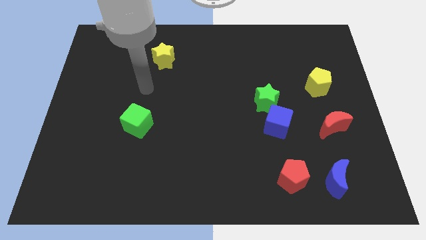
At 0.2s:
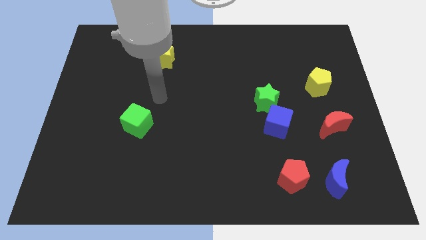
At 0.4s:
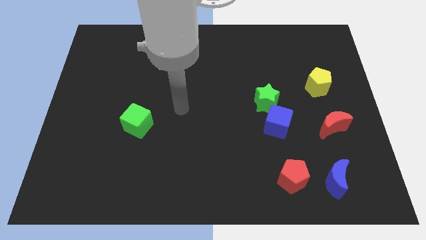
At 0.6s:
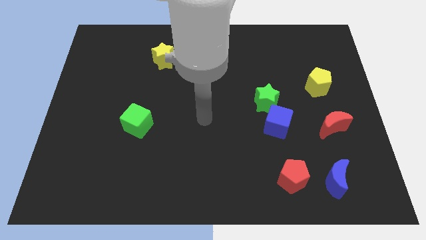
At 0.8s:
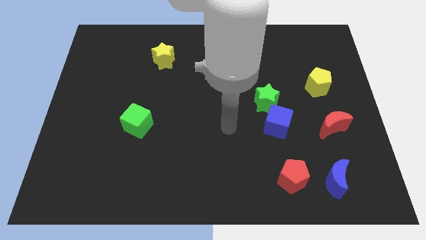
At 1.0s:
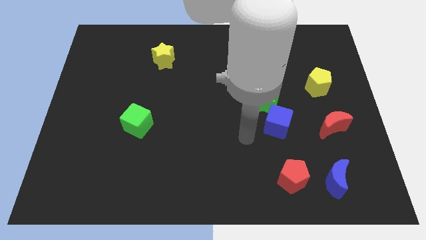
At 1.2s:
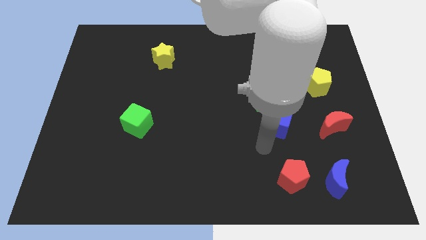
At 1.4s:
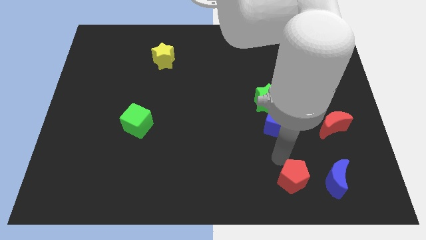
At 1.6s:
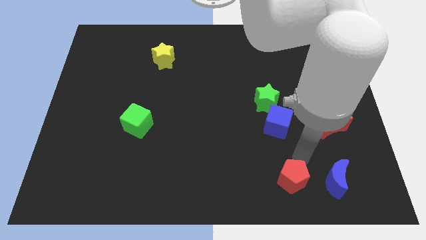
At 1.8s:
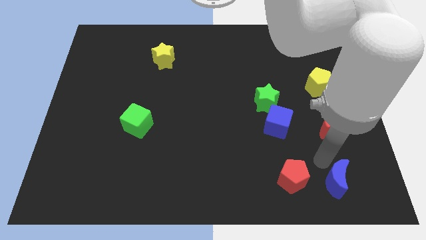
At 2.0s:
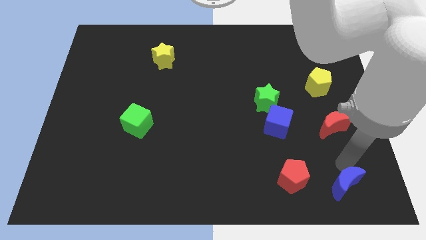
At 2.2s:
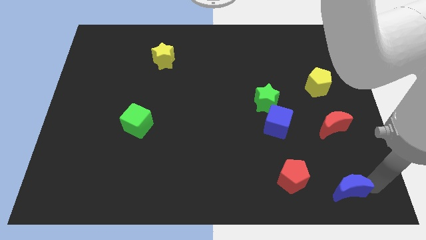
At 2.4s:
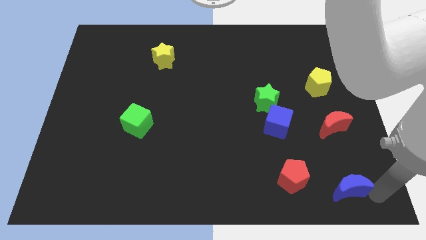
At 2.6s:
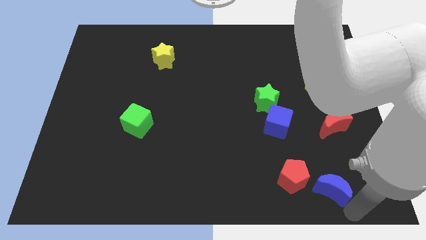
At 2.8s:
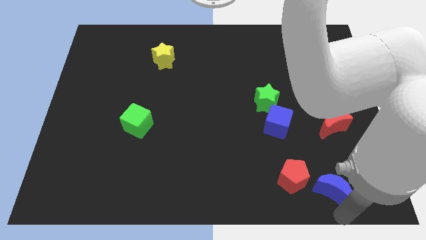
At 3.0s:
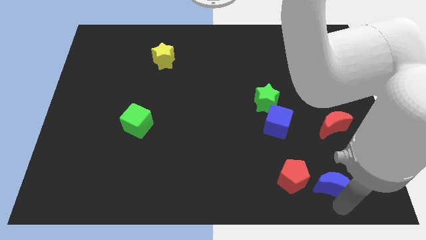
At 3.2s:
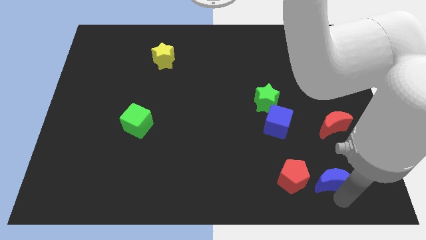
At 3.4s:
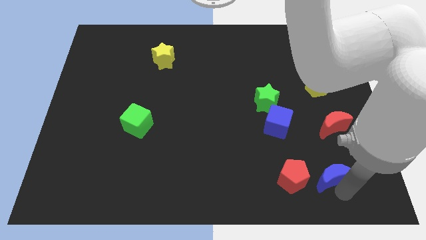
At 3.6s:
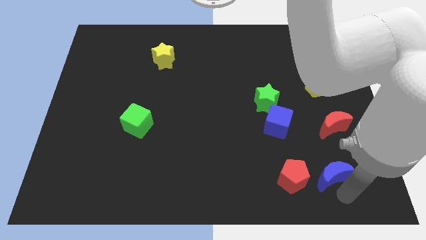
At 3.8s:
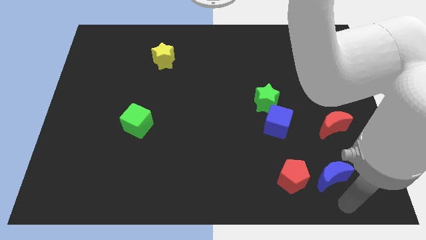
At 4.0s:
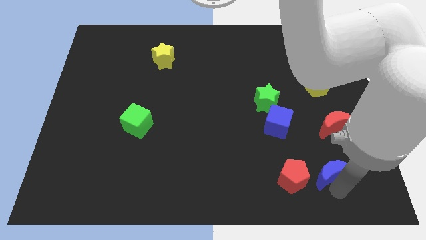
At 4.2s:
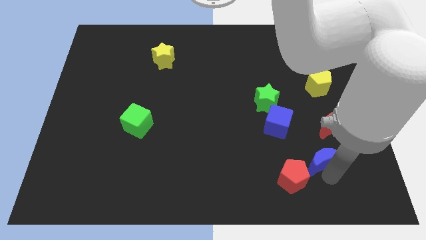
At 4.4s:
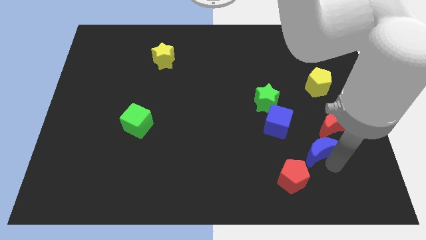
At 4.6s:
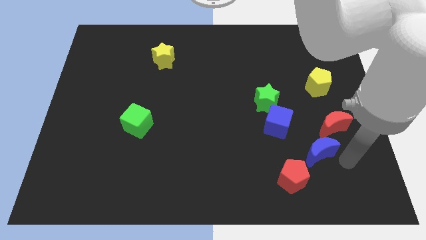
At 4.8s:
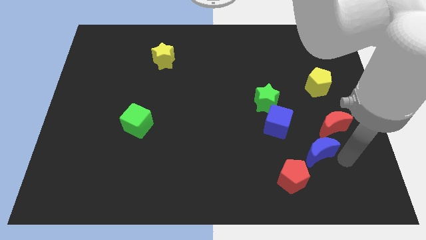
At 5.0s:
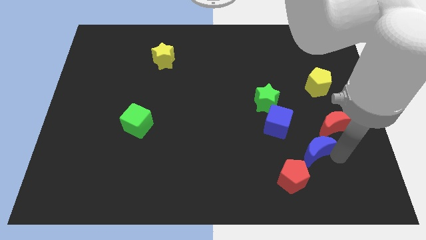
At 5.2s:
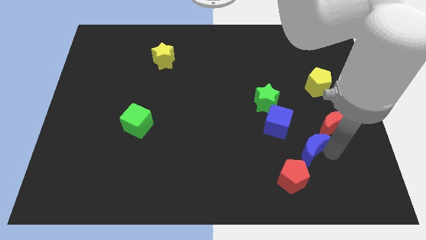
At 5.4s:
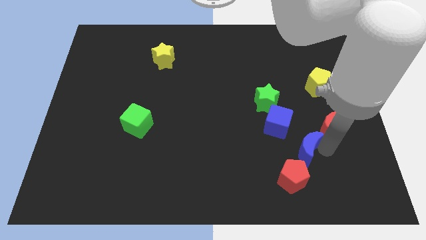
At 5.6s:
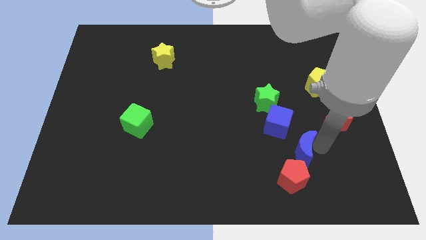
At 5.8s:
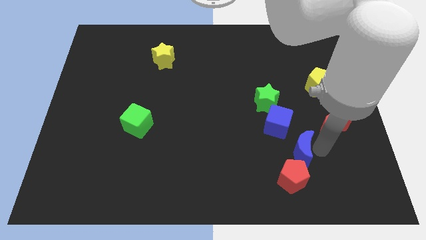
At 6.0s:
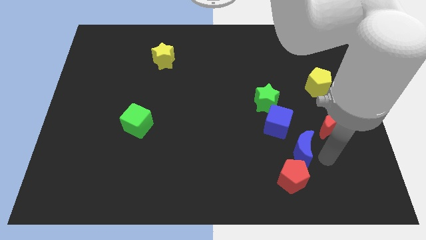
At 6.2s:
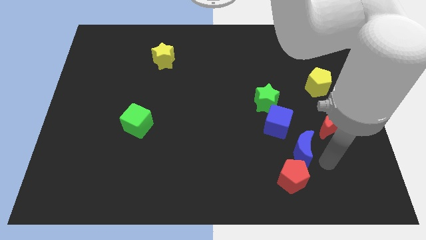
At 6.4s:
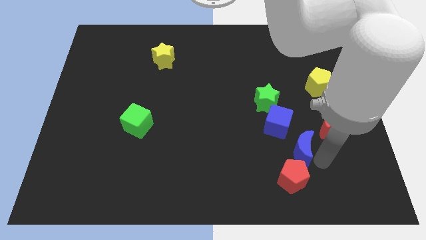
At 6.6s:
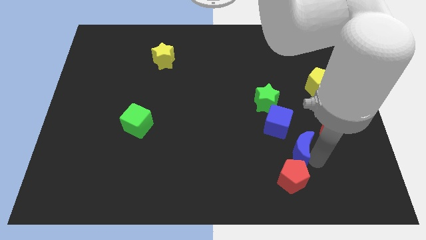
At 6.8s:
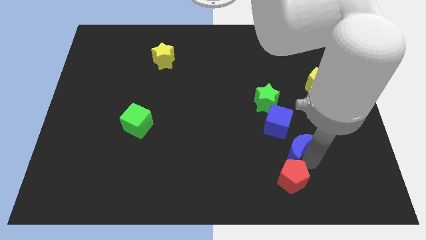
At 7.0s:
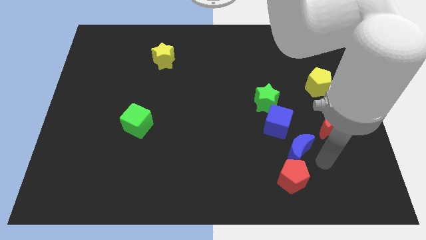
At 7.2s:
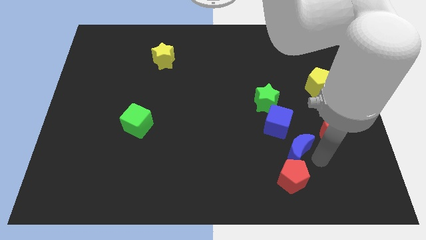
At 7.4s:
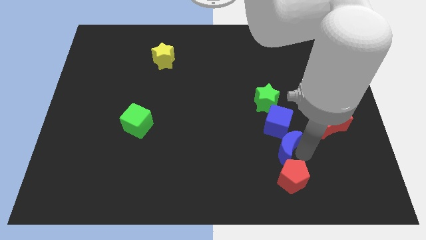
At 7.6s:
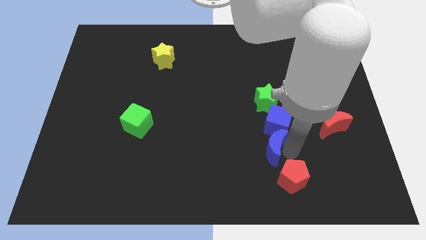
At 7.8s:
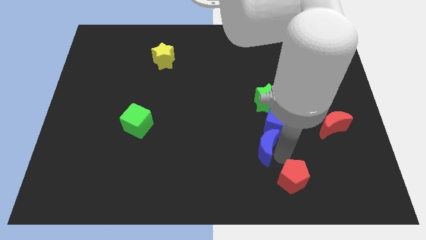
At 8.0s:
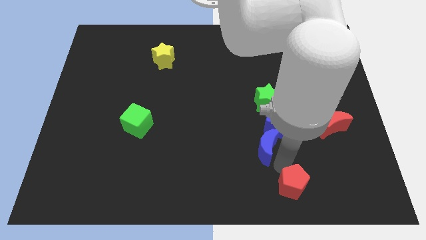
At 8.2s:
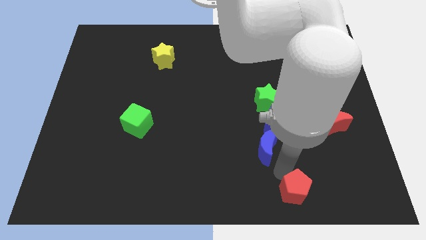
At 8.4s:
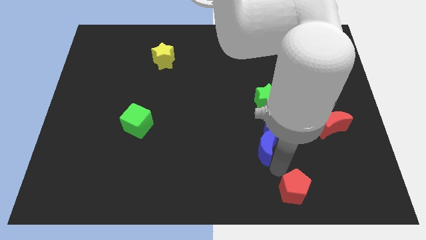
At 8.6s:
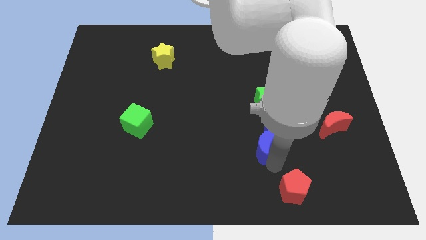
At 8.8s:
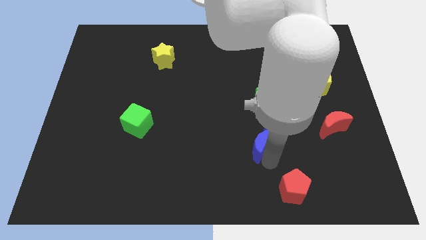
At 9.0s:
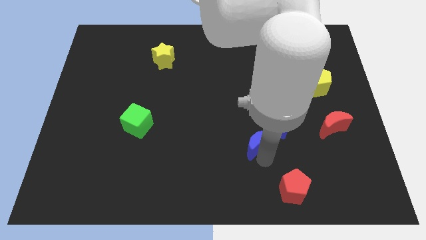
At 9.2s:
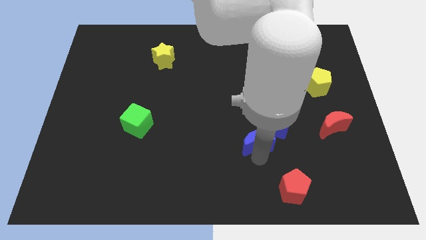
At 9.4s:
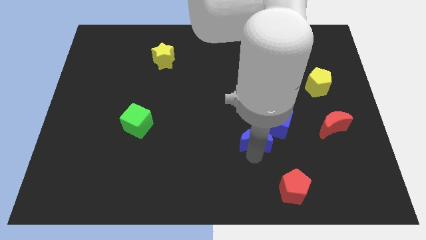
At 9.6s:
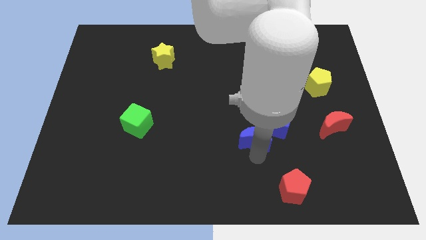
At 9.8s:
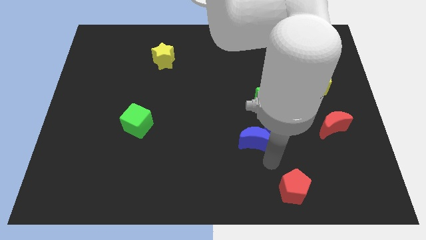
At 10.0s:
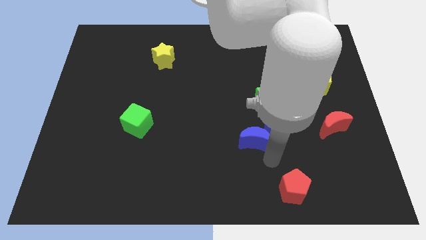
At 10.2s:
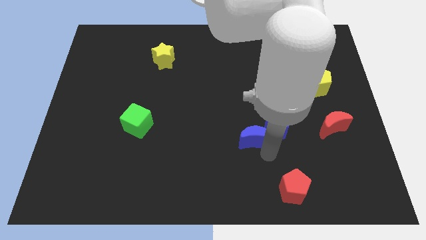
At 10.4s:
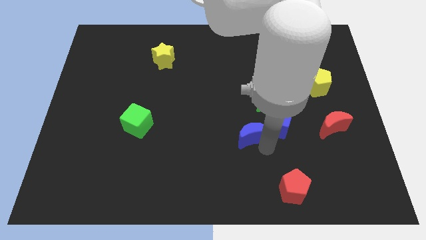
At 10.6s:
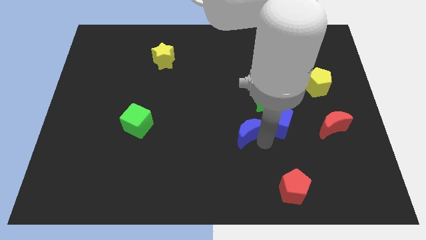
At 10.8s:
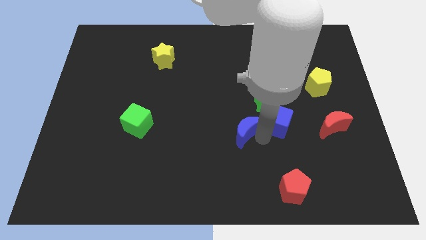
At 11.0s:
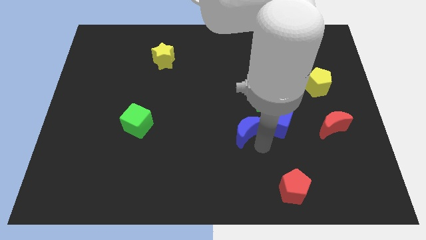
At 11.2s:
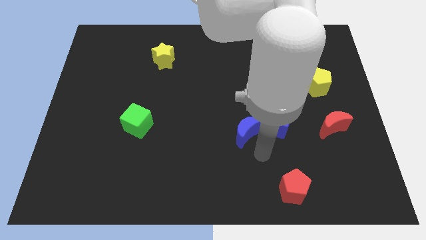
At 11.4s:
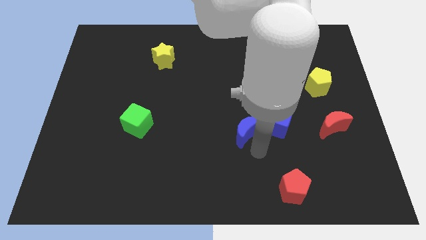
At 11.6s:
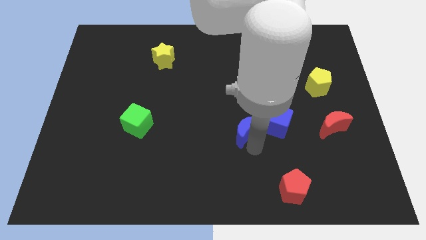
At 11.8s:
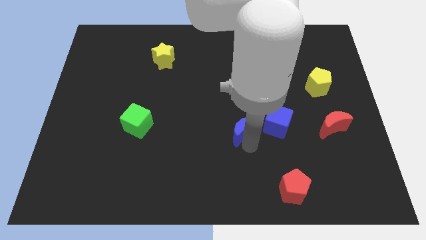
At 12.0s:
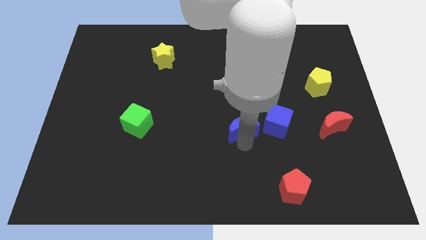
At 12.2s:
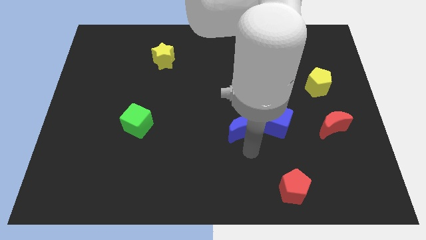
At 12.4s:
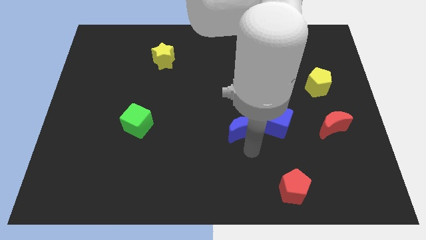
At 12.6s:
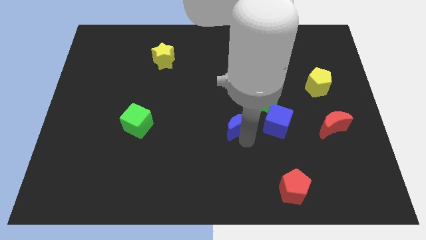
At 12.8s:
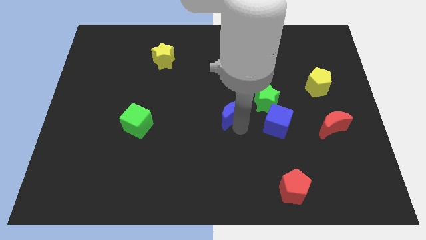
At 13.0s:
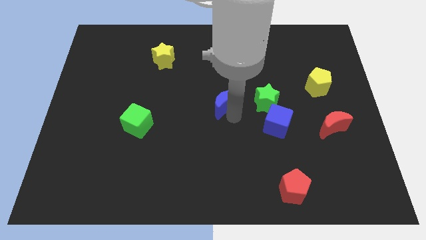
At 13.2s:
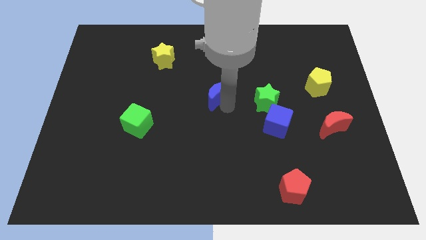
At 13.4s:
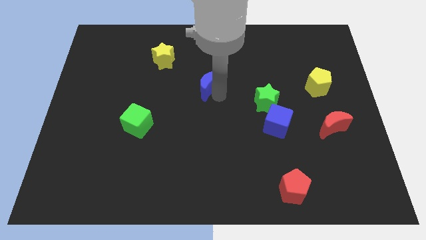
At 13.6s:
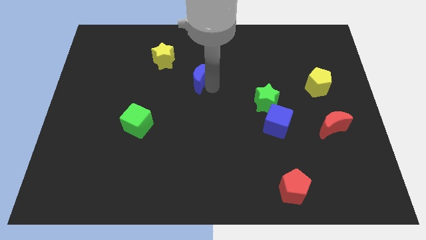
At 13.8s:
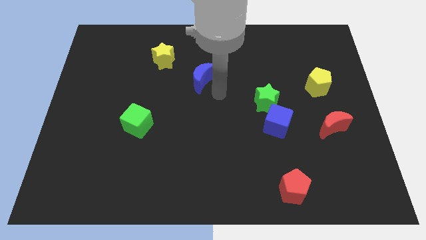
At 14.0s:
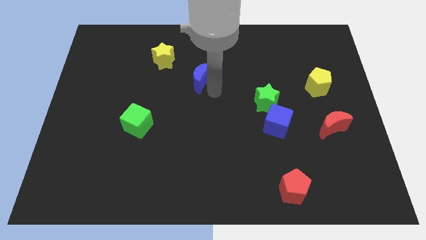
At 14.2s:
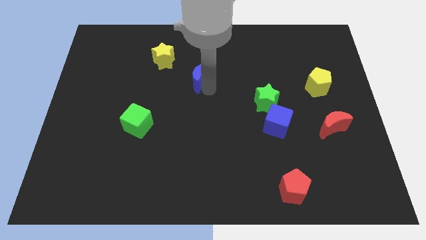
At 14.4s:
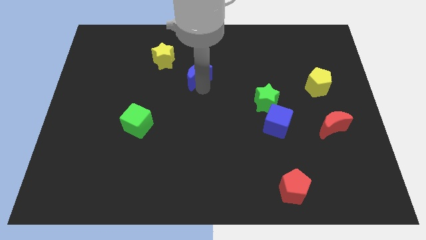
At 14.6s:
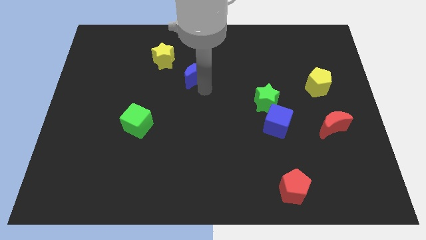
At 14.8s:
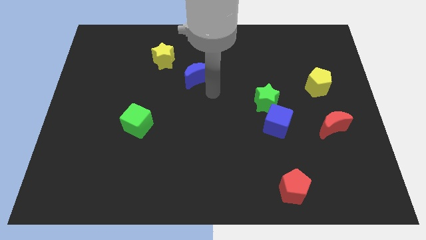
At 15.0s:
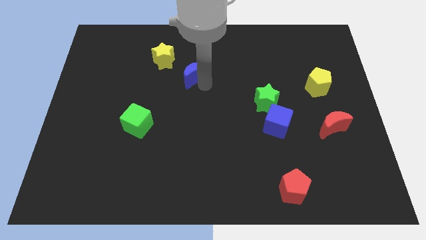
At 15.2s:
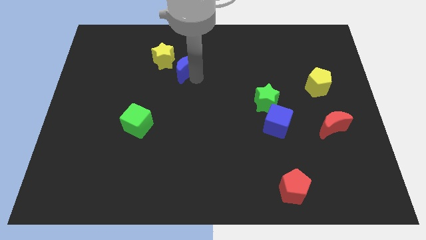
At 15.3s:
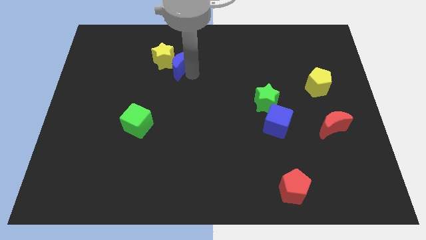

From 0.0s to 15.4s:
push the blue moon to the yellow star

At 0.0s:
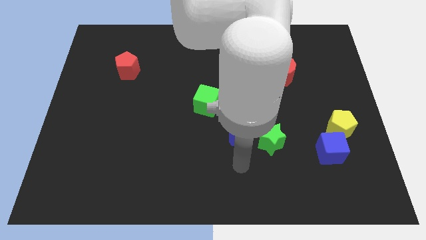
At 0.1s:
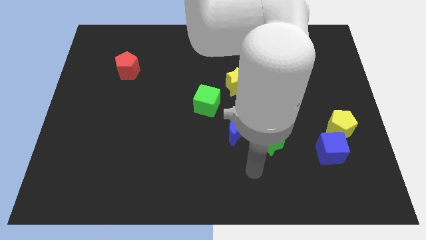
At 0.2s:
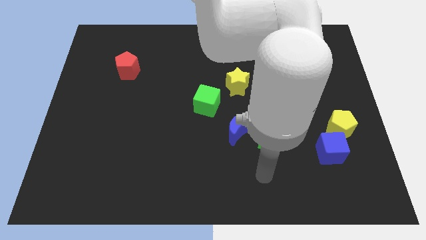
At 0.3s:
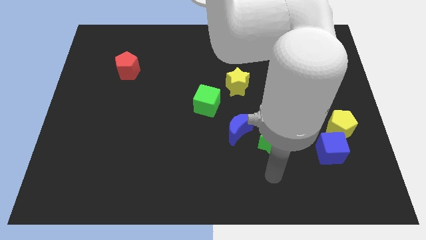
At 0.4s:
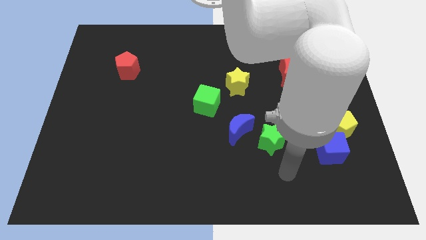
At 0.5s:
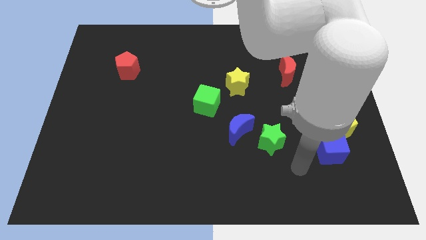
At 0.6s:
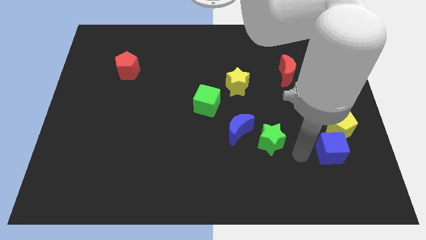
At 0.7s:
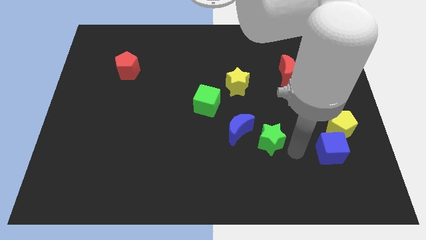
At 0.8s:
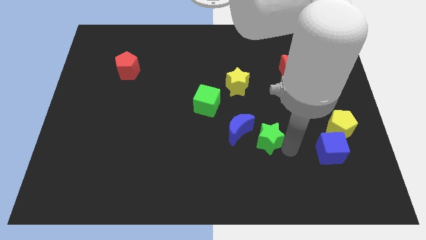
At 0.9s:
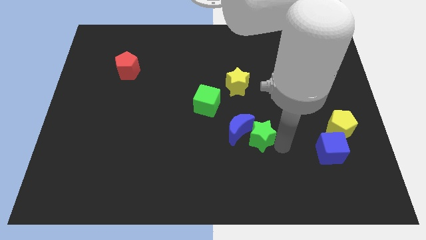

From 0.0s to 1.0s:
move the green star to the blue moon
